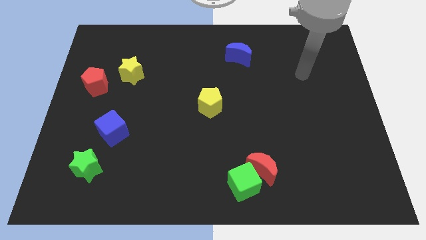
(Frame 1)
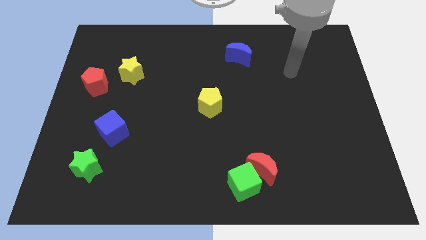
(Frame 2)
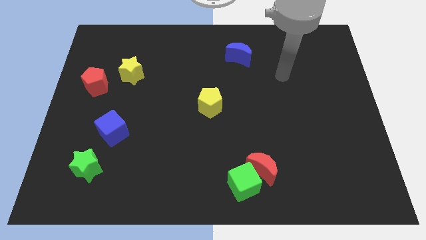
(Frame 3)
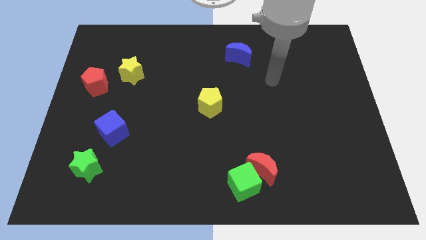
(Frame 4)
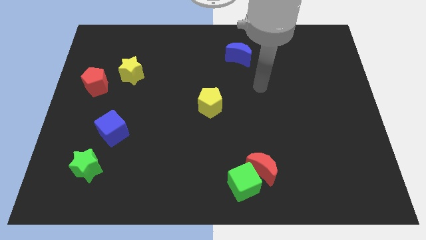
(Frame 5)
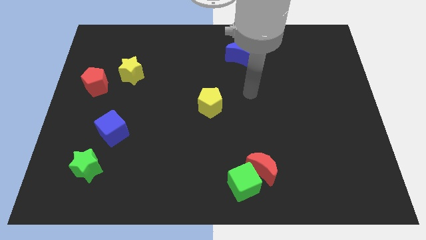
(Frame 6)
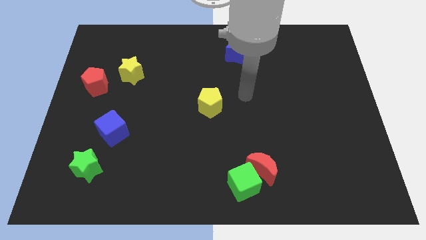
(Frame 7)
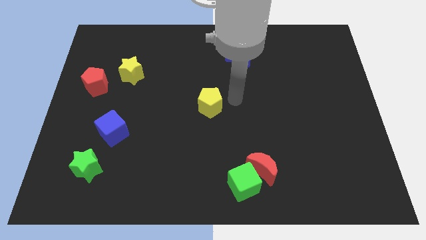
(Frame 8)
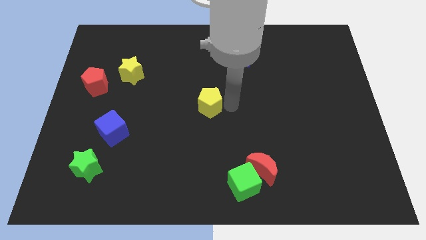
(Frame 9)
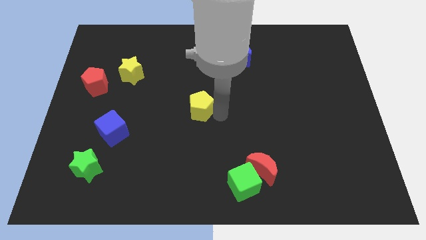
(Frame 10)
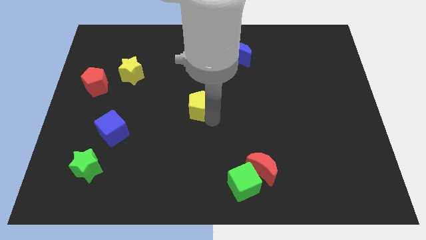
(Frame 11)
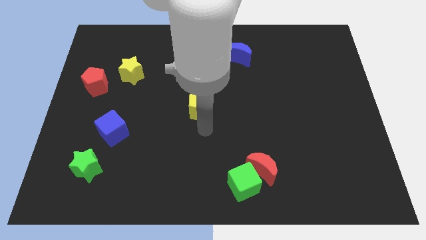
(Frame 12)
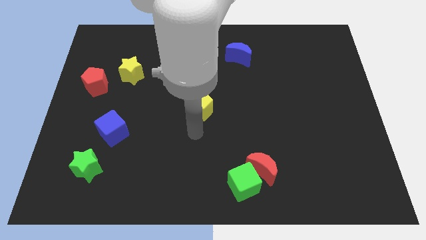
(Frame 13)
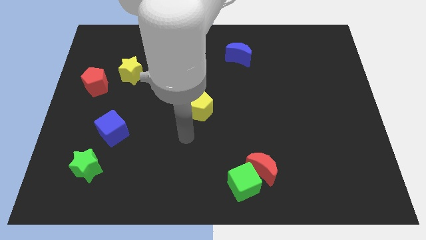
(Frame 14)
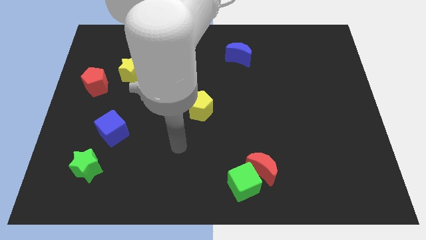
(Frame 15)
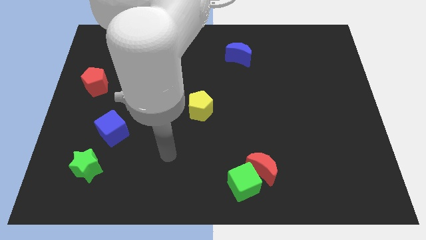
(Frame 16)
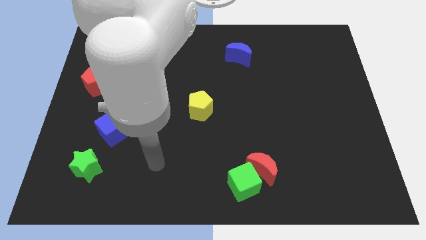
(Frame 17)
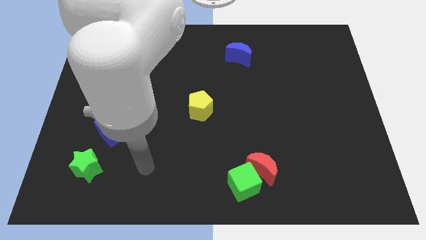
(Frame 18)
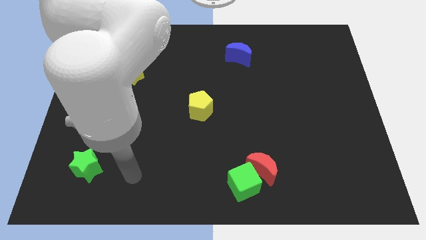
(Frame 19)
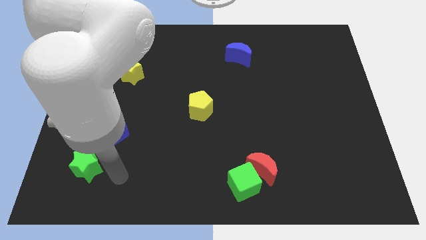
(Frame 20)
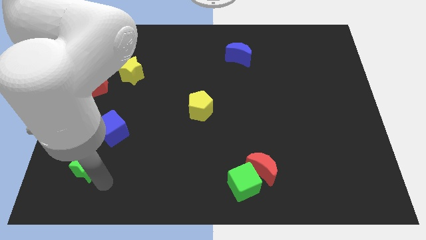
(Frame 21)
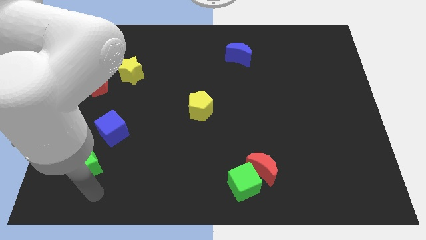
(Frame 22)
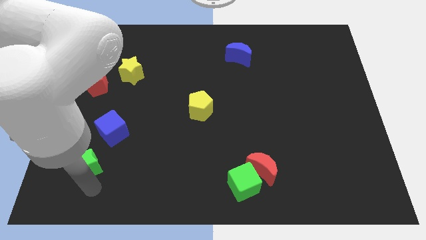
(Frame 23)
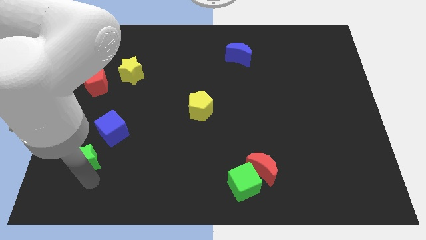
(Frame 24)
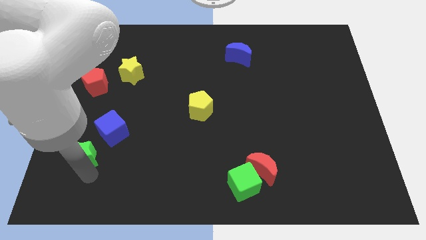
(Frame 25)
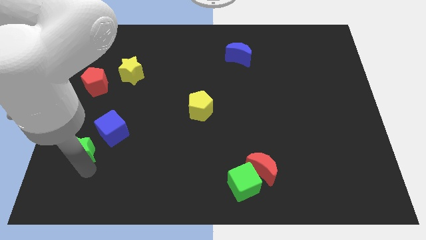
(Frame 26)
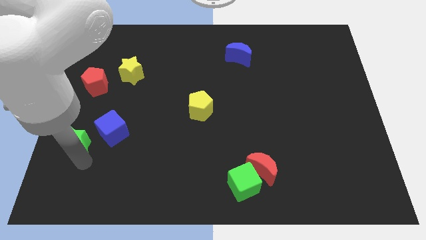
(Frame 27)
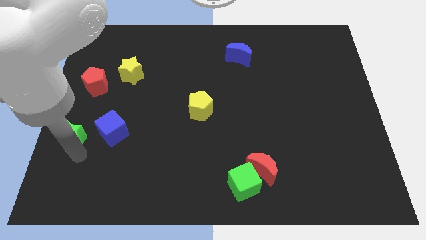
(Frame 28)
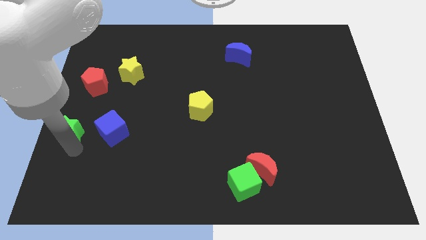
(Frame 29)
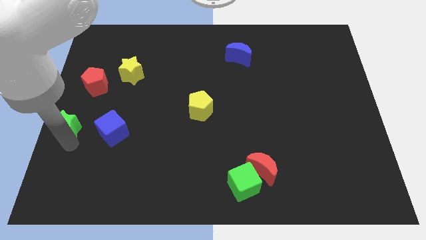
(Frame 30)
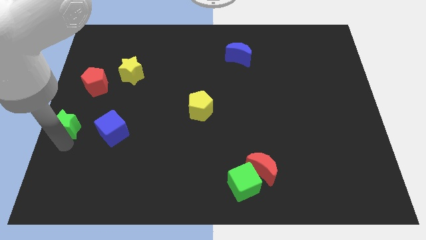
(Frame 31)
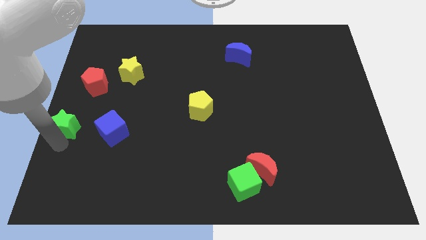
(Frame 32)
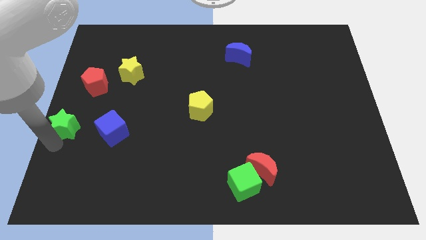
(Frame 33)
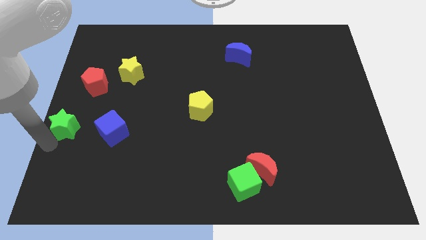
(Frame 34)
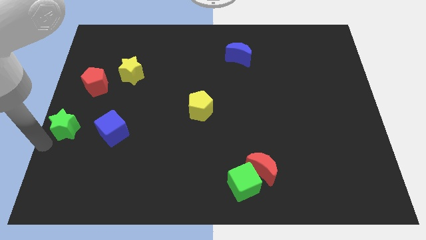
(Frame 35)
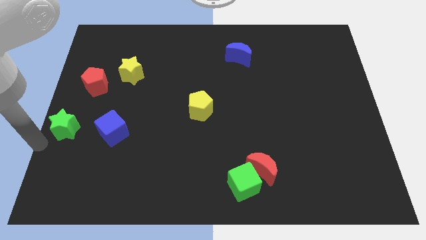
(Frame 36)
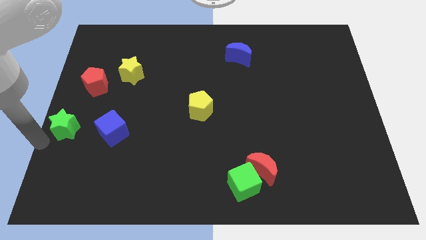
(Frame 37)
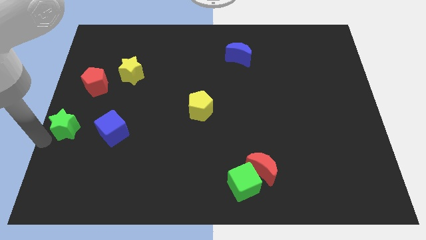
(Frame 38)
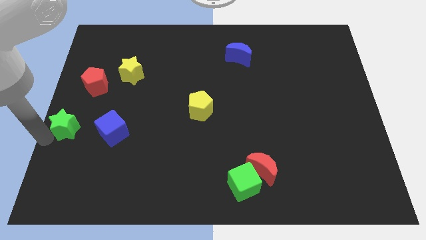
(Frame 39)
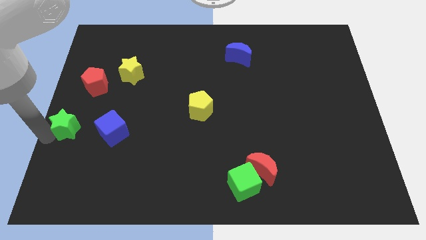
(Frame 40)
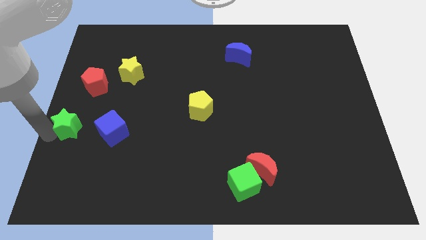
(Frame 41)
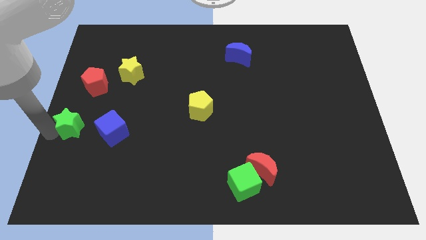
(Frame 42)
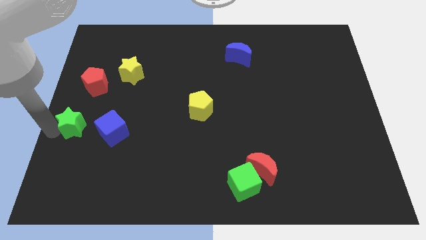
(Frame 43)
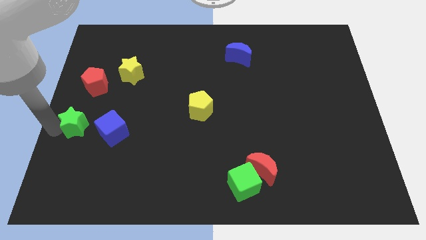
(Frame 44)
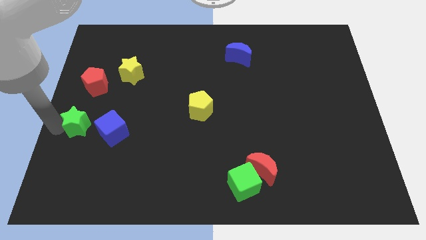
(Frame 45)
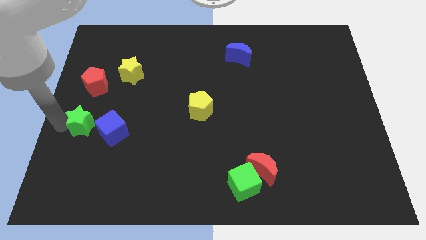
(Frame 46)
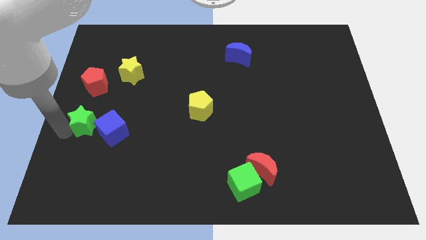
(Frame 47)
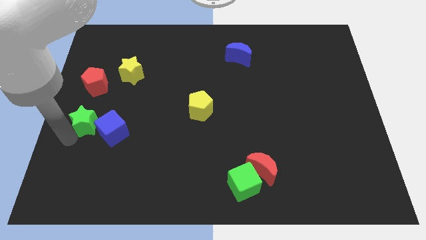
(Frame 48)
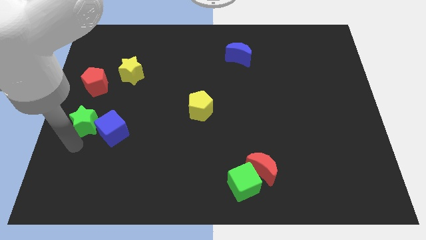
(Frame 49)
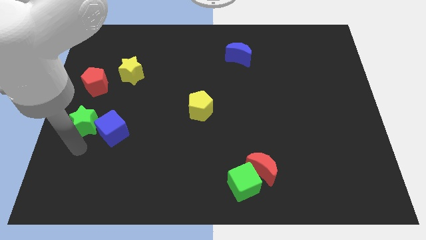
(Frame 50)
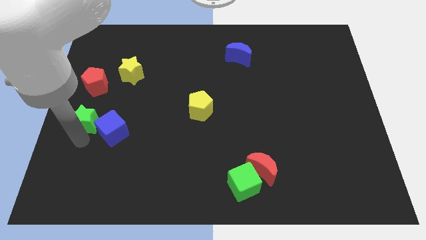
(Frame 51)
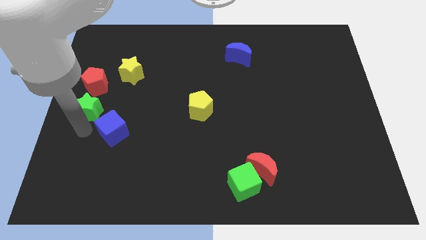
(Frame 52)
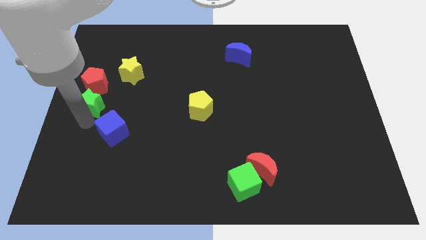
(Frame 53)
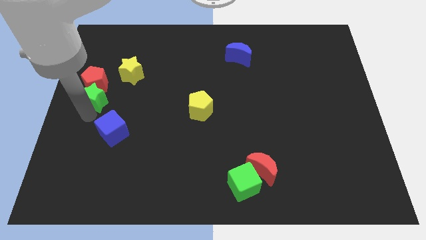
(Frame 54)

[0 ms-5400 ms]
move the green star towards the red pentagon

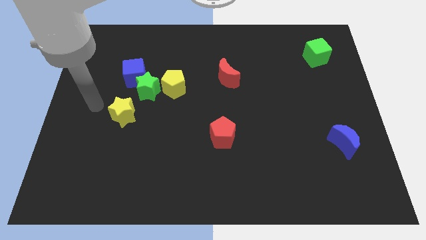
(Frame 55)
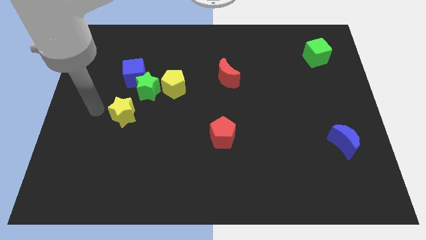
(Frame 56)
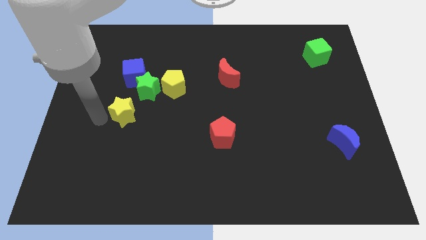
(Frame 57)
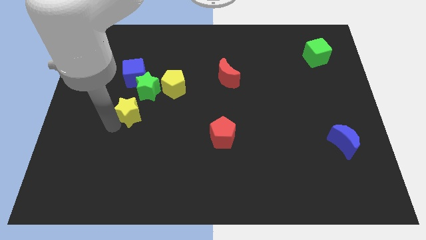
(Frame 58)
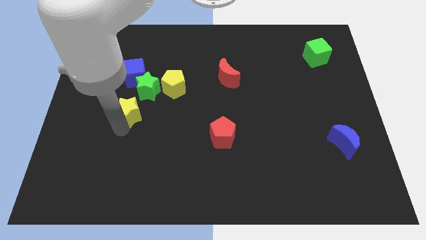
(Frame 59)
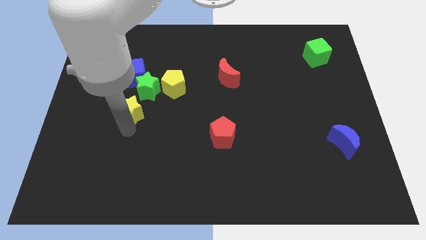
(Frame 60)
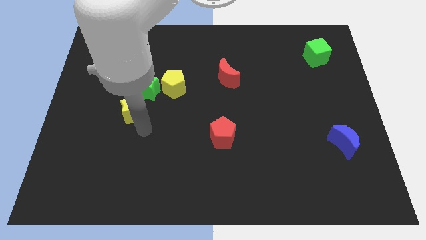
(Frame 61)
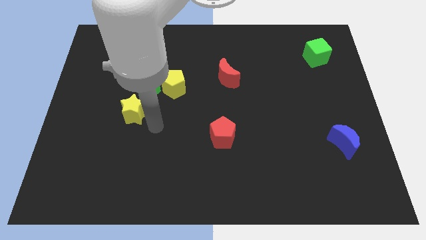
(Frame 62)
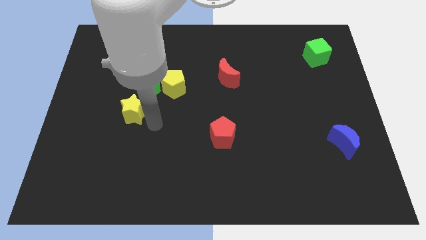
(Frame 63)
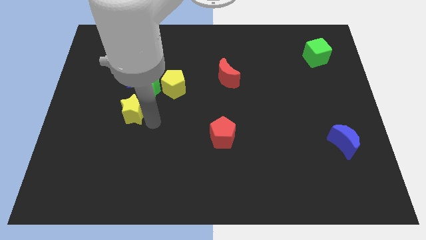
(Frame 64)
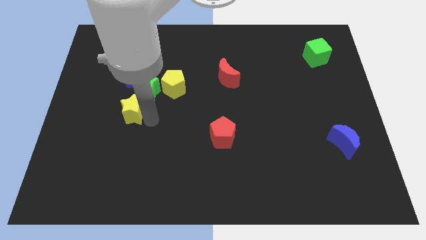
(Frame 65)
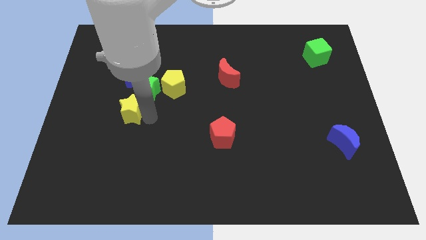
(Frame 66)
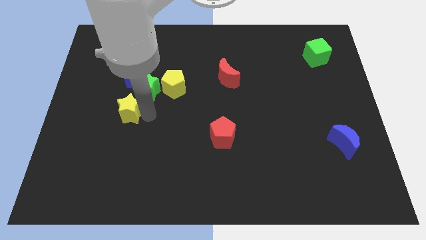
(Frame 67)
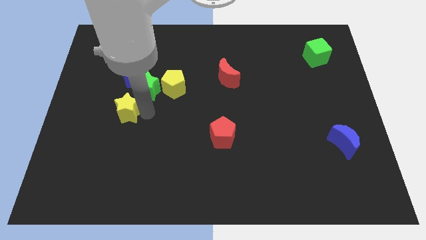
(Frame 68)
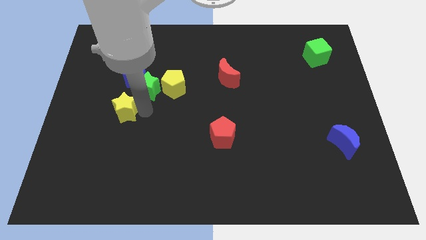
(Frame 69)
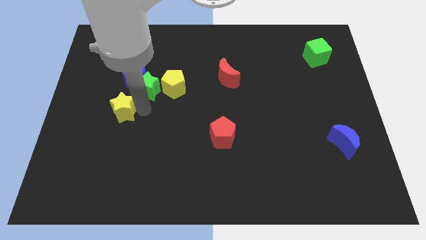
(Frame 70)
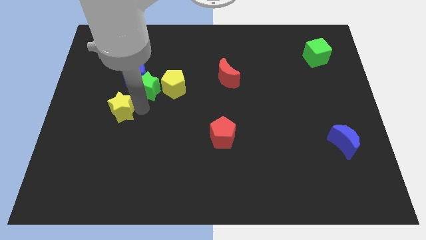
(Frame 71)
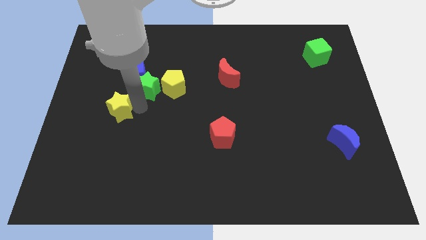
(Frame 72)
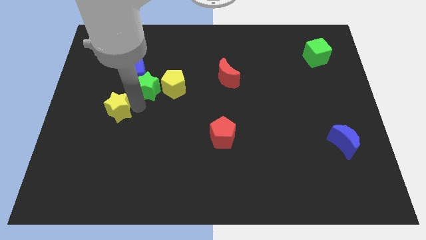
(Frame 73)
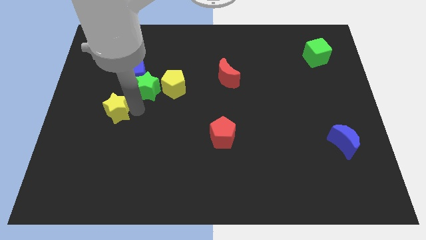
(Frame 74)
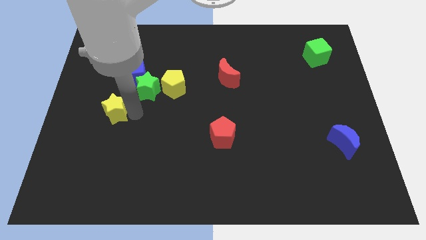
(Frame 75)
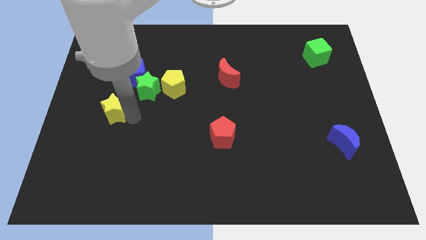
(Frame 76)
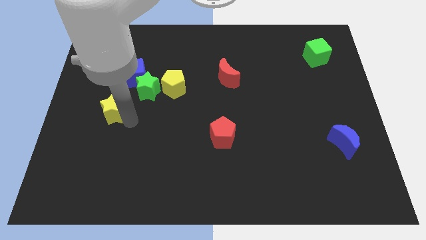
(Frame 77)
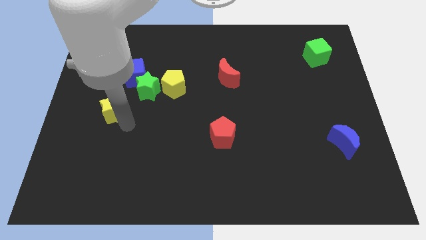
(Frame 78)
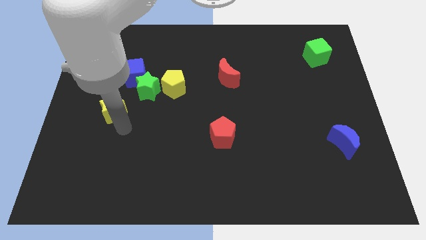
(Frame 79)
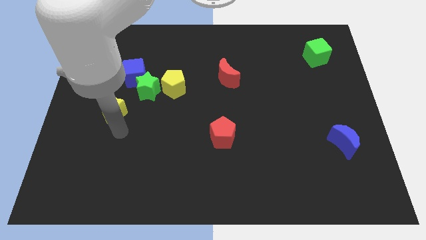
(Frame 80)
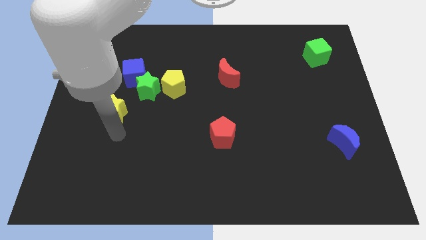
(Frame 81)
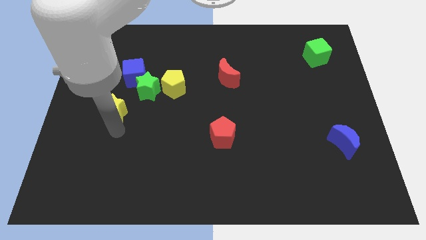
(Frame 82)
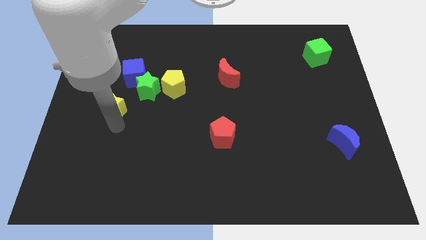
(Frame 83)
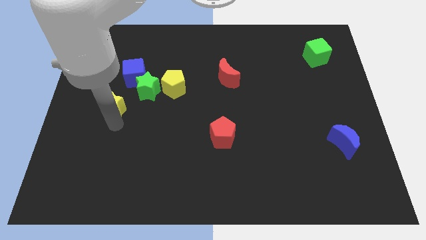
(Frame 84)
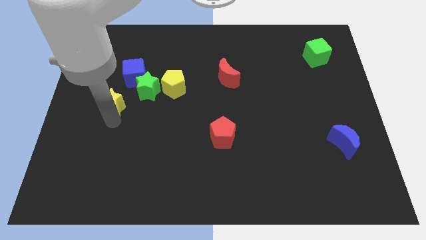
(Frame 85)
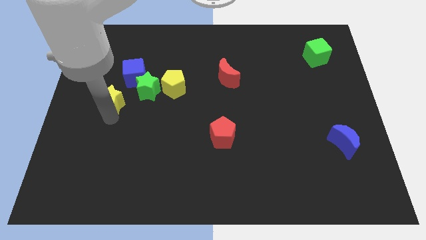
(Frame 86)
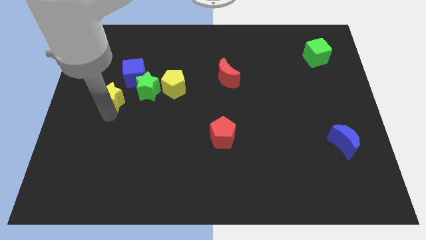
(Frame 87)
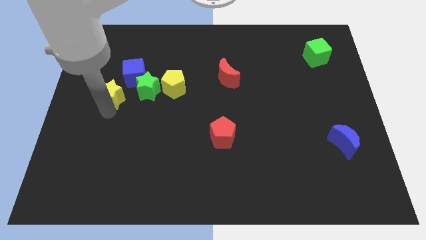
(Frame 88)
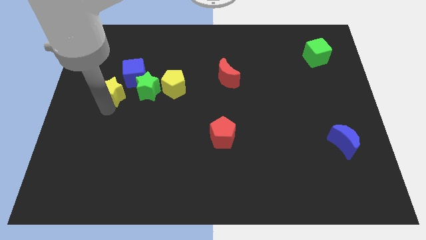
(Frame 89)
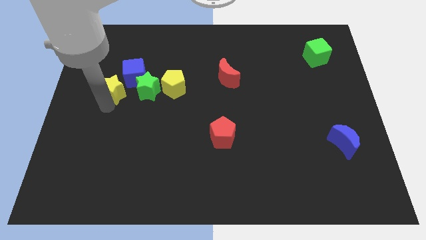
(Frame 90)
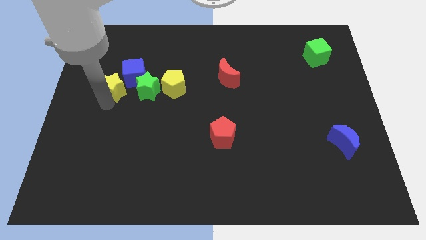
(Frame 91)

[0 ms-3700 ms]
put the yellow star towards the blue cube
